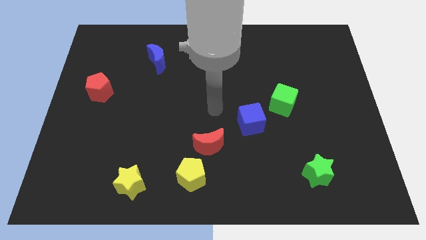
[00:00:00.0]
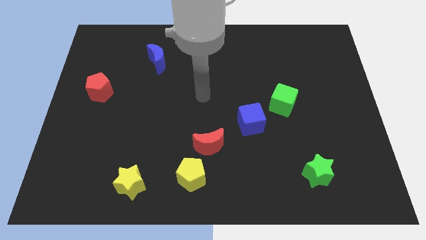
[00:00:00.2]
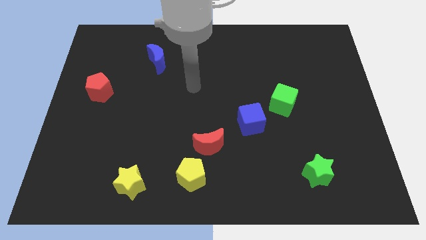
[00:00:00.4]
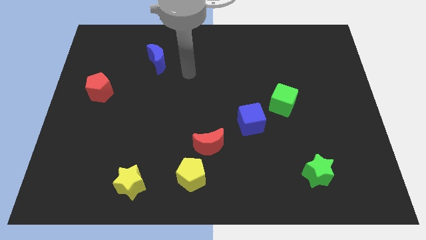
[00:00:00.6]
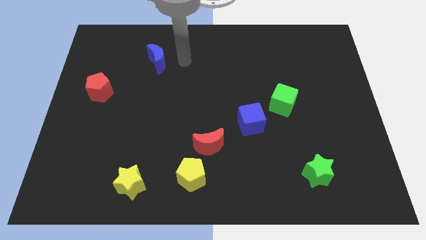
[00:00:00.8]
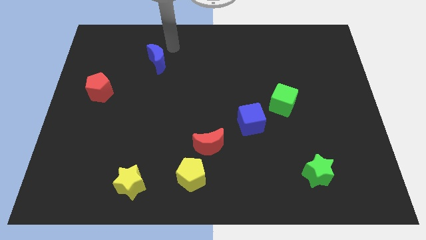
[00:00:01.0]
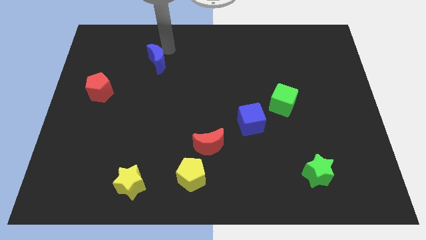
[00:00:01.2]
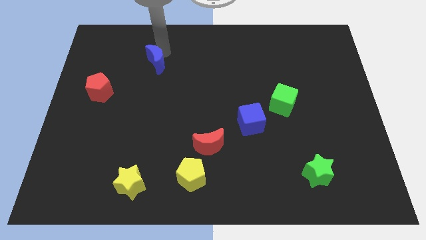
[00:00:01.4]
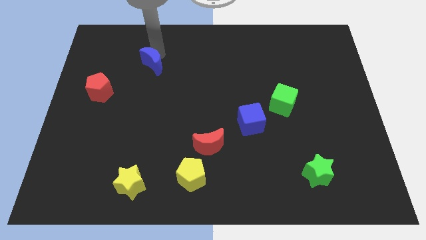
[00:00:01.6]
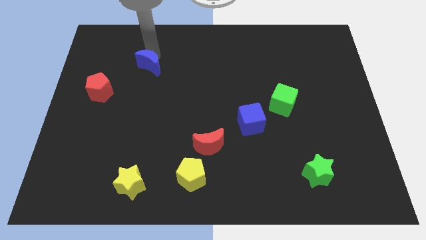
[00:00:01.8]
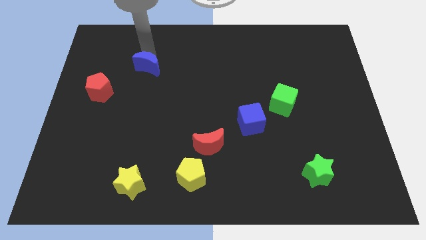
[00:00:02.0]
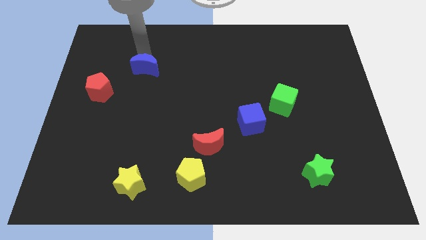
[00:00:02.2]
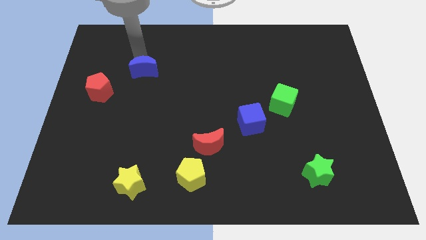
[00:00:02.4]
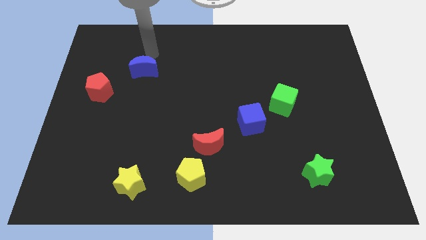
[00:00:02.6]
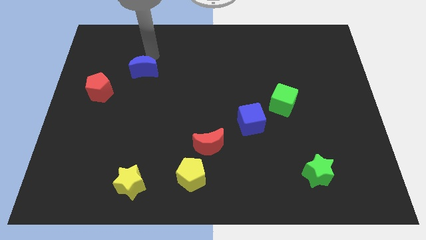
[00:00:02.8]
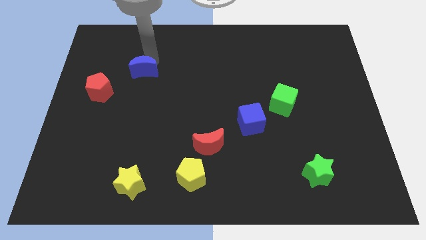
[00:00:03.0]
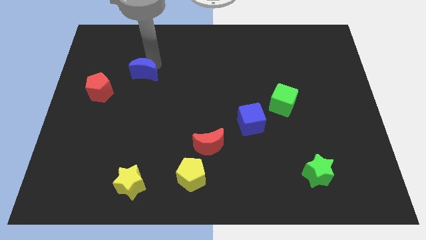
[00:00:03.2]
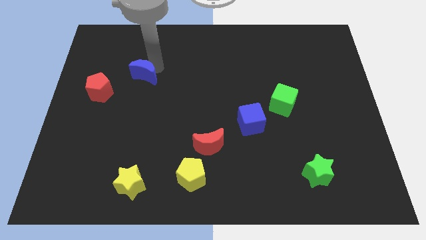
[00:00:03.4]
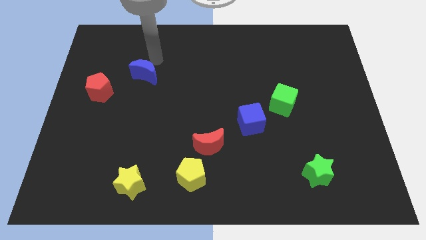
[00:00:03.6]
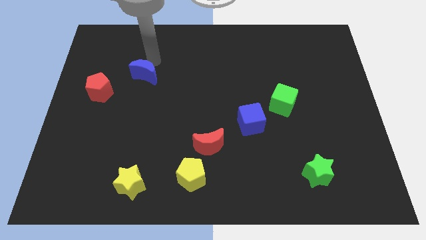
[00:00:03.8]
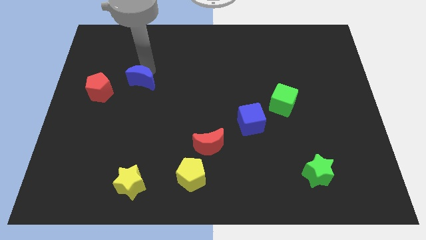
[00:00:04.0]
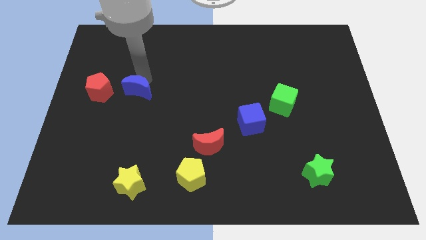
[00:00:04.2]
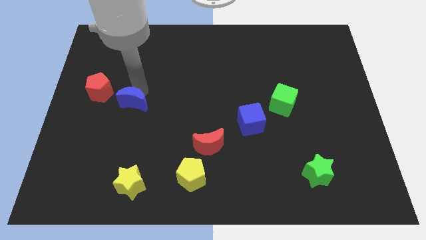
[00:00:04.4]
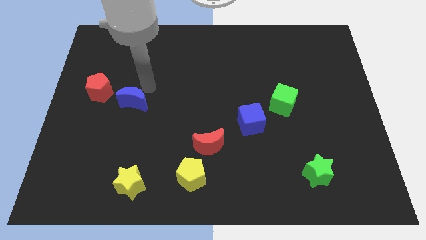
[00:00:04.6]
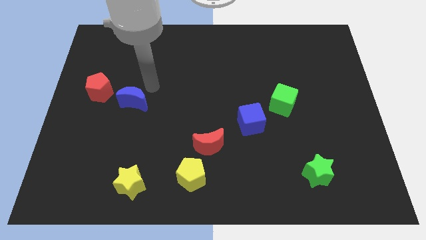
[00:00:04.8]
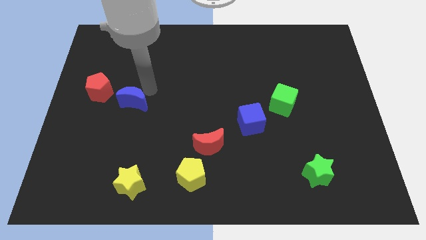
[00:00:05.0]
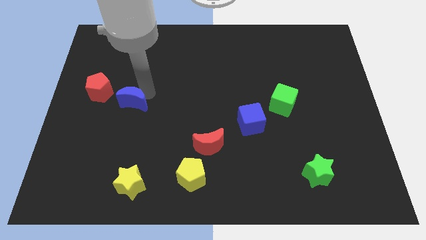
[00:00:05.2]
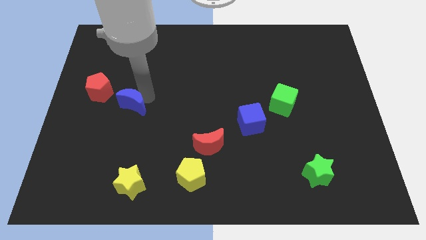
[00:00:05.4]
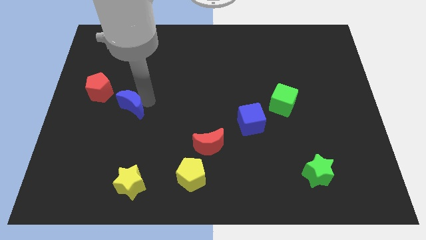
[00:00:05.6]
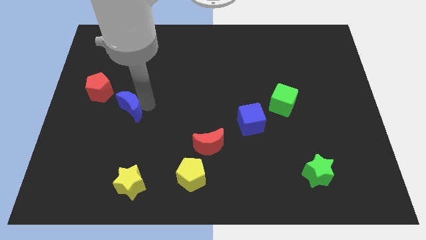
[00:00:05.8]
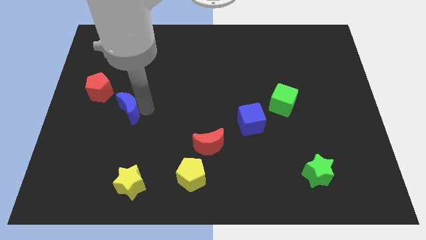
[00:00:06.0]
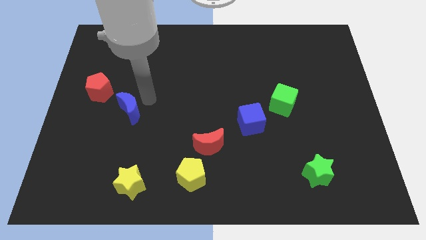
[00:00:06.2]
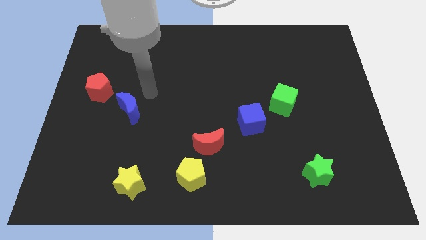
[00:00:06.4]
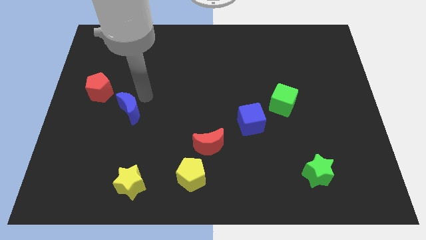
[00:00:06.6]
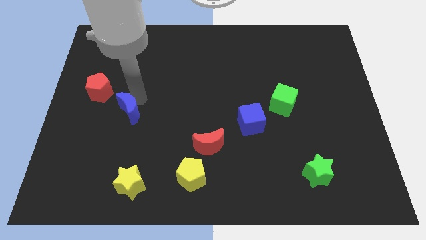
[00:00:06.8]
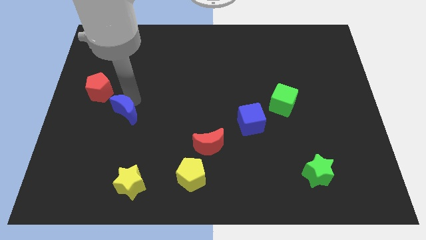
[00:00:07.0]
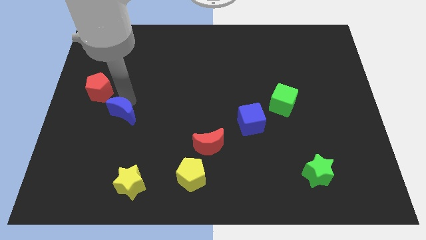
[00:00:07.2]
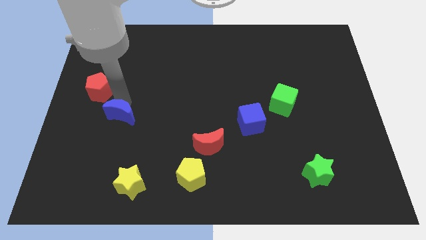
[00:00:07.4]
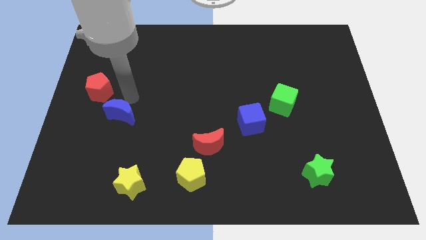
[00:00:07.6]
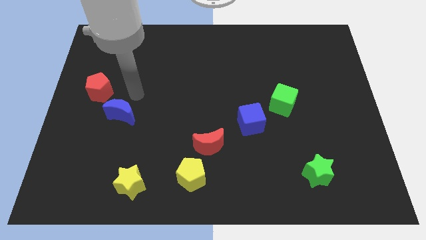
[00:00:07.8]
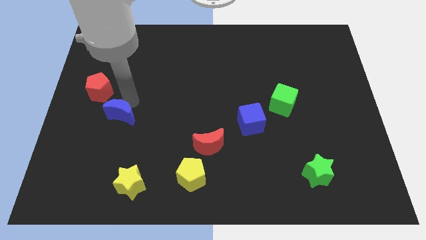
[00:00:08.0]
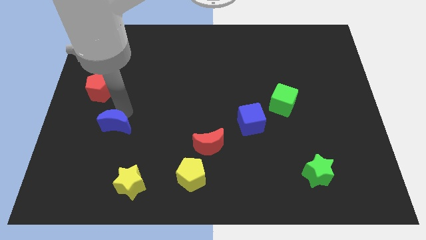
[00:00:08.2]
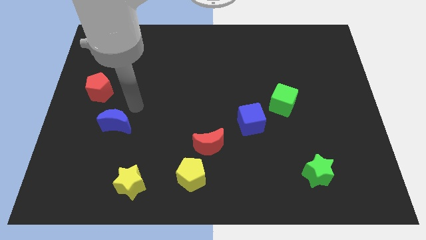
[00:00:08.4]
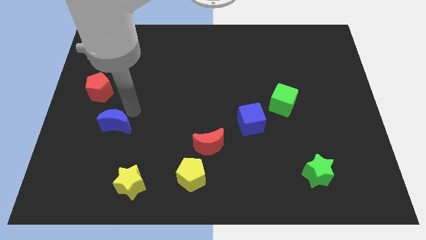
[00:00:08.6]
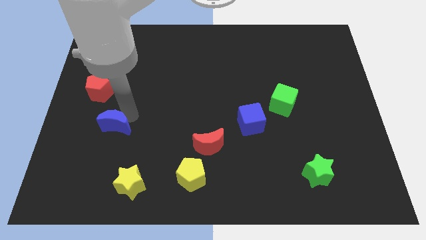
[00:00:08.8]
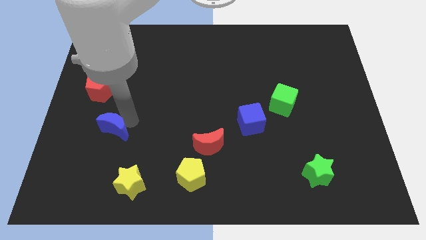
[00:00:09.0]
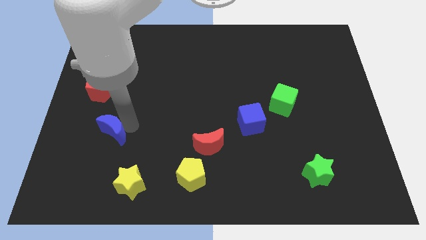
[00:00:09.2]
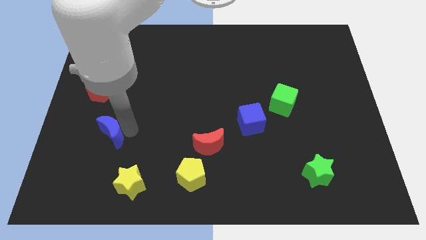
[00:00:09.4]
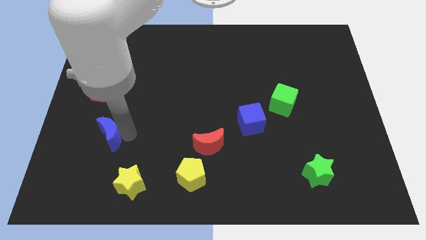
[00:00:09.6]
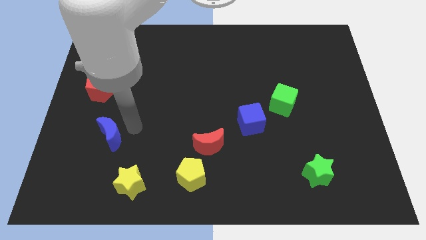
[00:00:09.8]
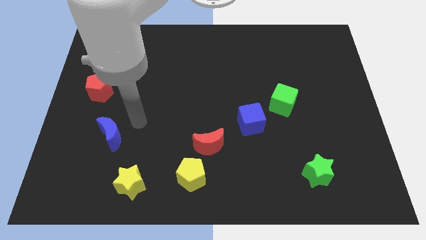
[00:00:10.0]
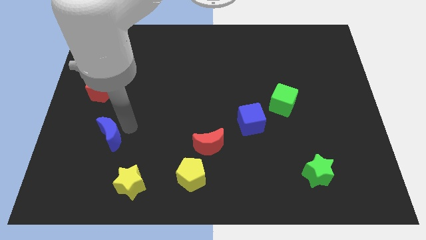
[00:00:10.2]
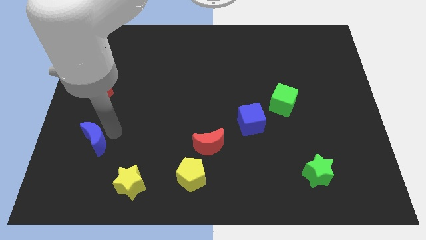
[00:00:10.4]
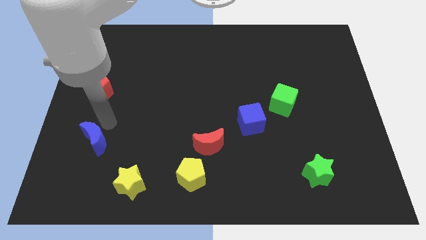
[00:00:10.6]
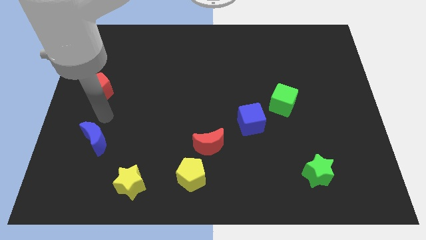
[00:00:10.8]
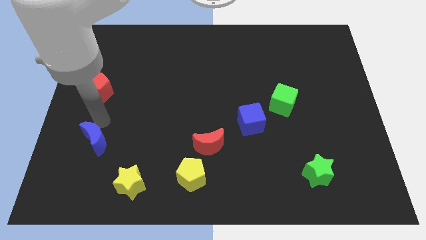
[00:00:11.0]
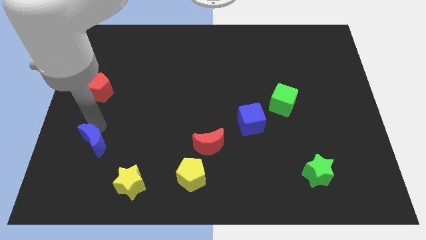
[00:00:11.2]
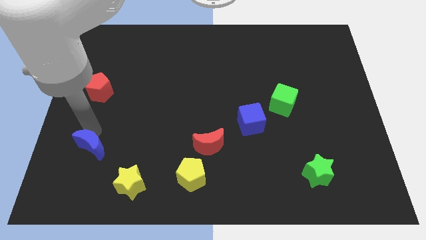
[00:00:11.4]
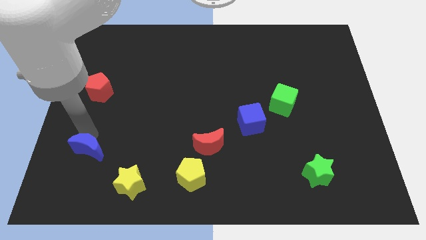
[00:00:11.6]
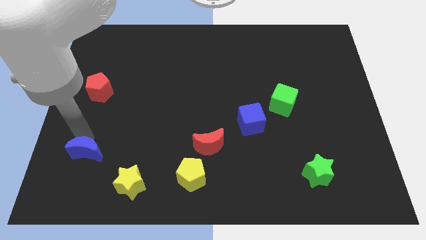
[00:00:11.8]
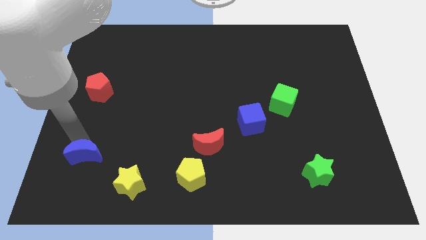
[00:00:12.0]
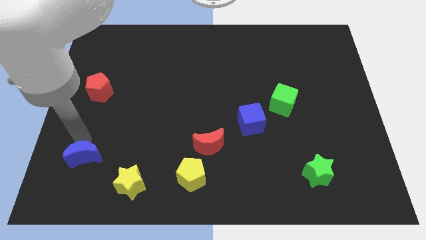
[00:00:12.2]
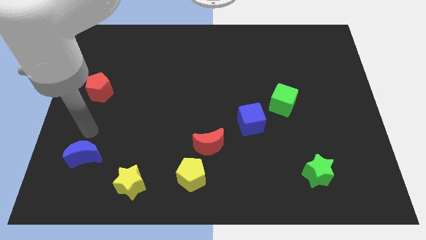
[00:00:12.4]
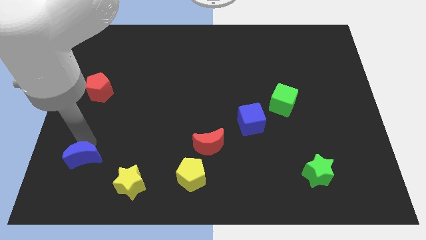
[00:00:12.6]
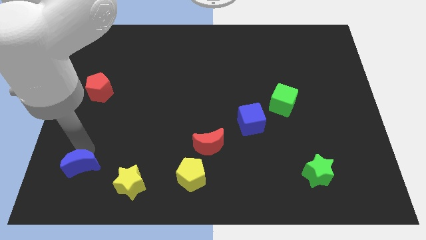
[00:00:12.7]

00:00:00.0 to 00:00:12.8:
push the blue moon to the left side of the yellow star
